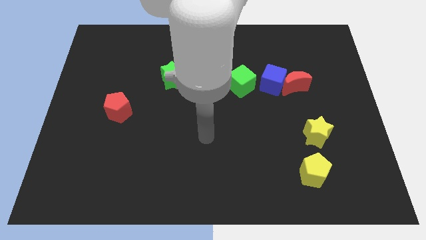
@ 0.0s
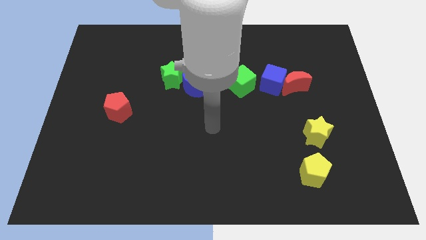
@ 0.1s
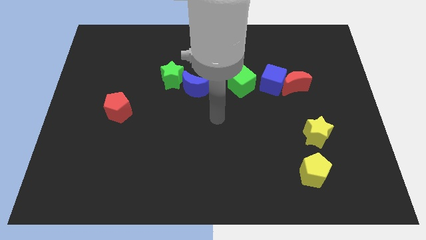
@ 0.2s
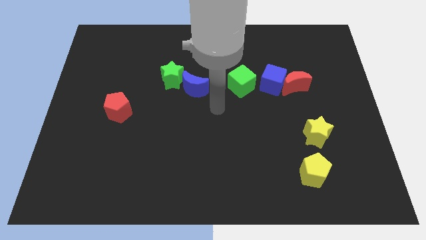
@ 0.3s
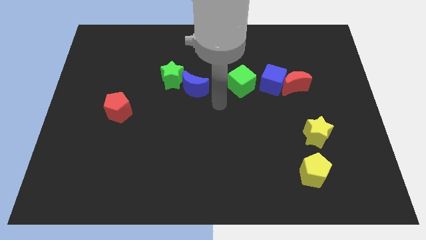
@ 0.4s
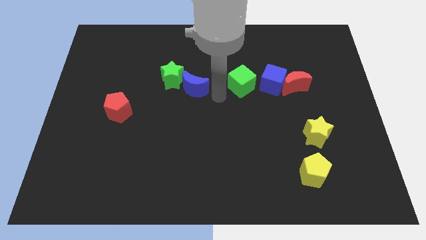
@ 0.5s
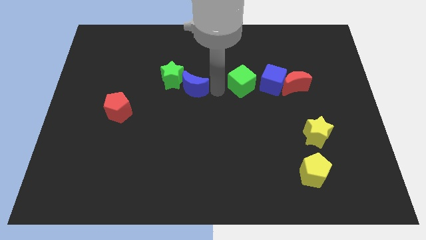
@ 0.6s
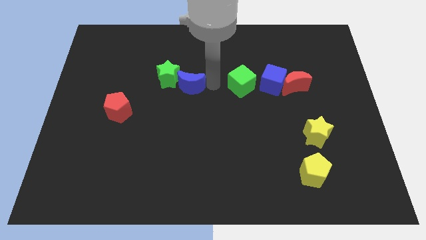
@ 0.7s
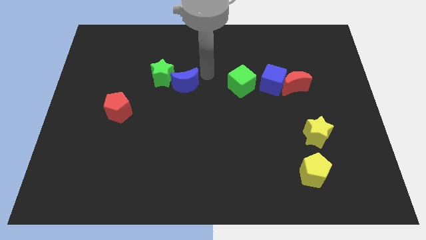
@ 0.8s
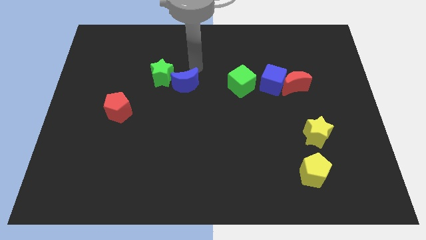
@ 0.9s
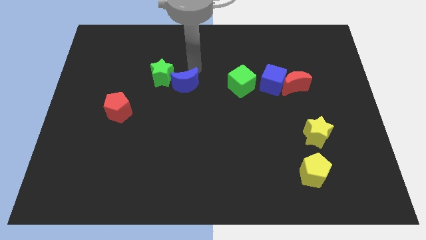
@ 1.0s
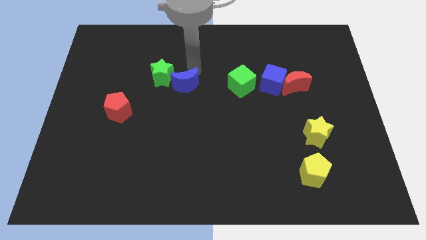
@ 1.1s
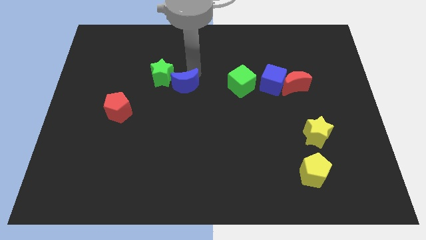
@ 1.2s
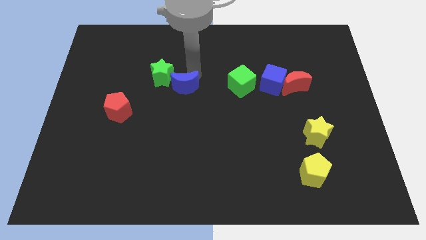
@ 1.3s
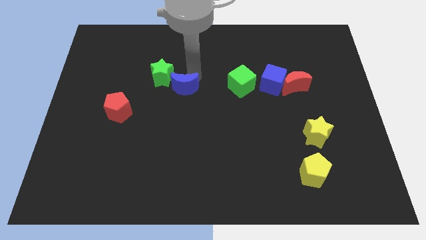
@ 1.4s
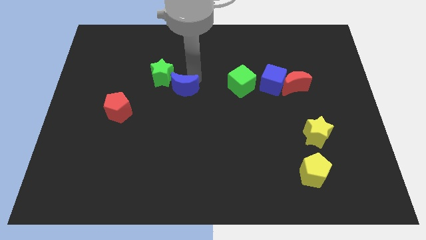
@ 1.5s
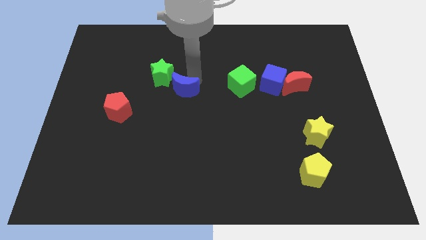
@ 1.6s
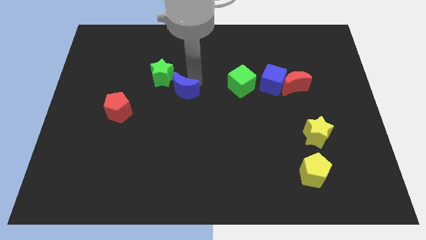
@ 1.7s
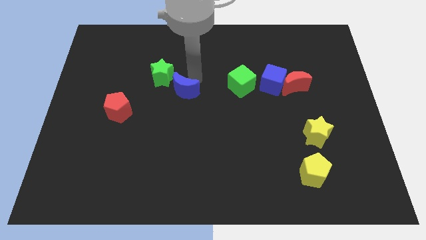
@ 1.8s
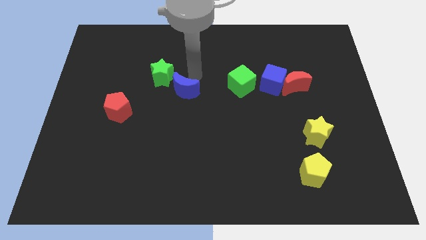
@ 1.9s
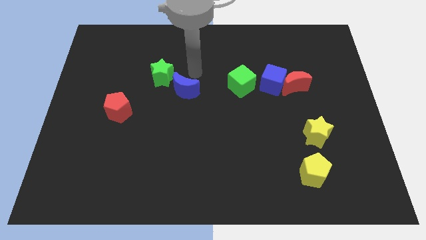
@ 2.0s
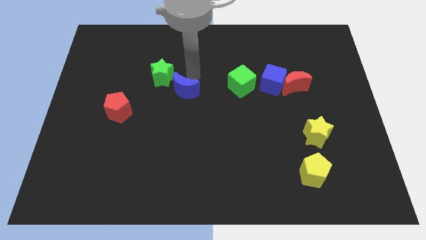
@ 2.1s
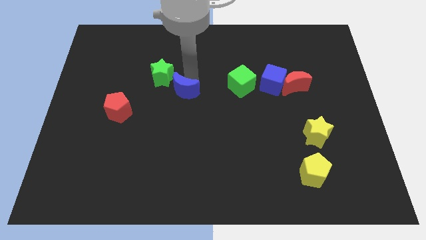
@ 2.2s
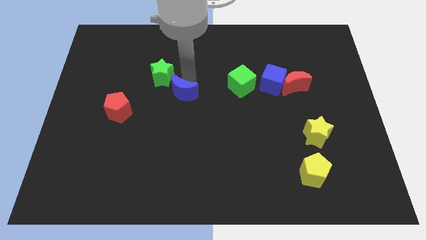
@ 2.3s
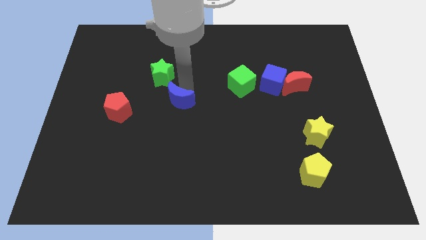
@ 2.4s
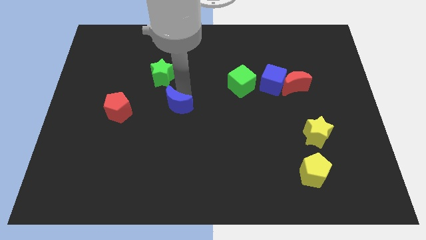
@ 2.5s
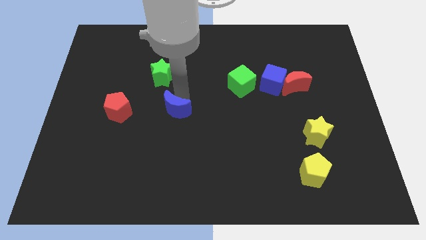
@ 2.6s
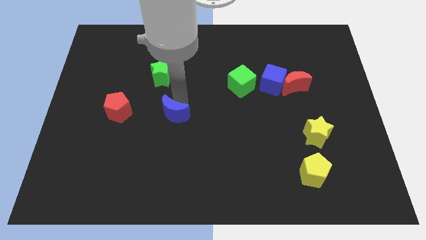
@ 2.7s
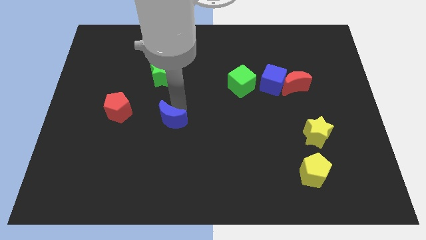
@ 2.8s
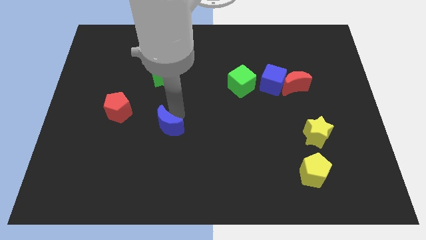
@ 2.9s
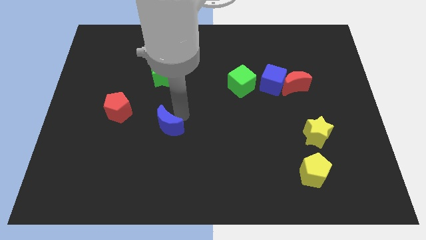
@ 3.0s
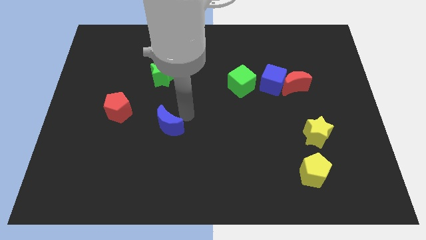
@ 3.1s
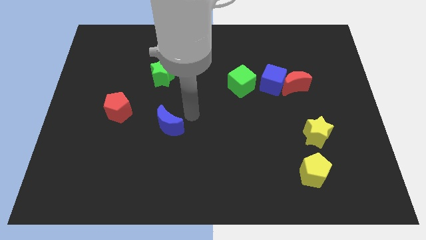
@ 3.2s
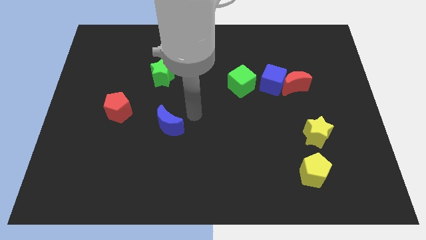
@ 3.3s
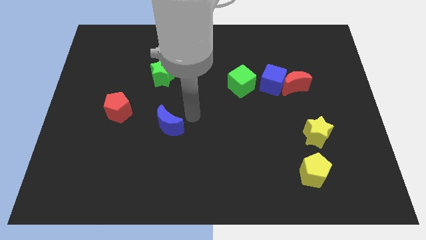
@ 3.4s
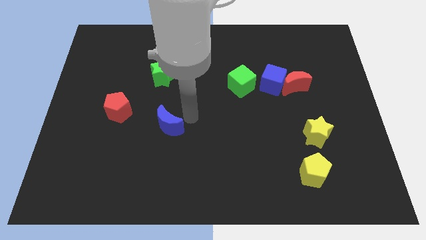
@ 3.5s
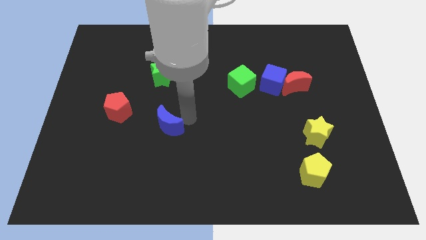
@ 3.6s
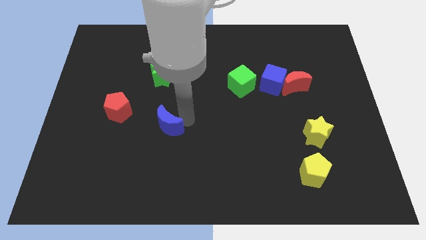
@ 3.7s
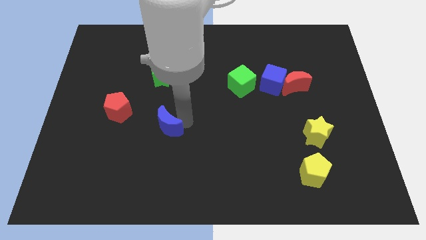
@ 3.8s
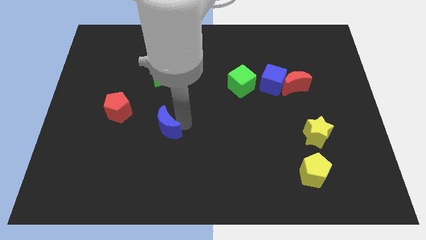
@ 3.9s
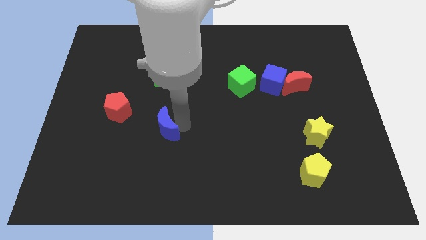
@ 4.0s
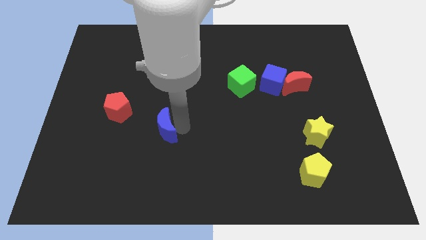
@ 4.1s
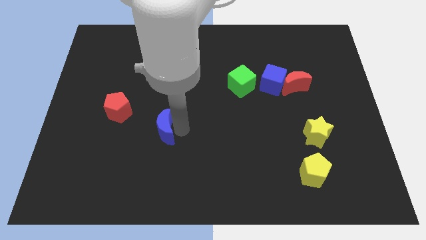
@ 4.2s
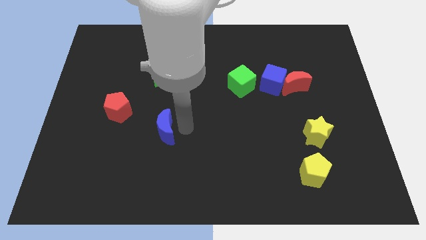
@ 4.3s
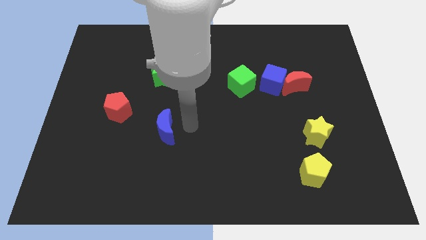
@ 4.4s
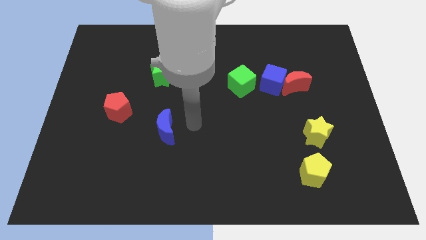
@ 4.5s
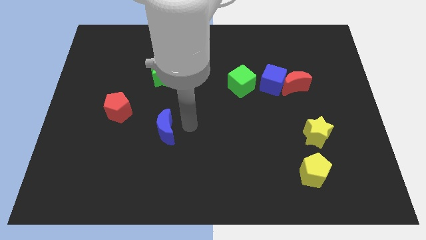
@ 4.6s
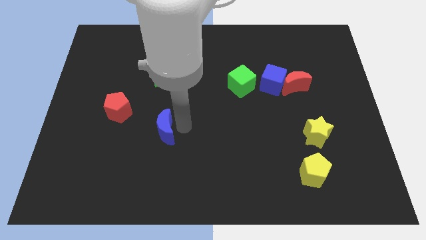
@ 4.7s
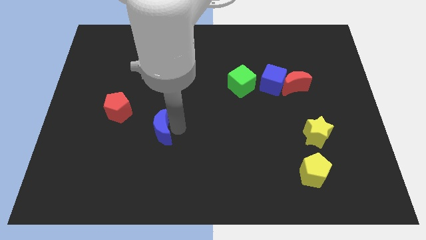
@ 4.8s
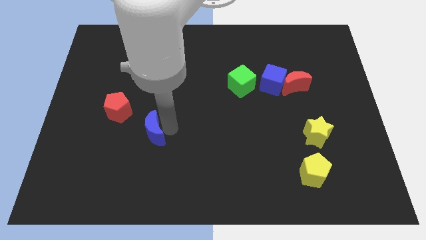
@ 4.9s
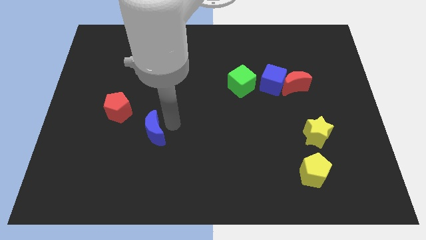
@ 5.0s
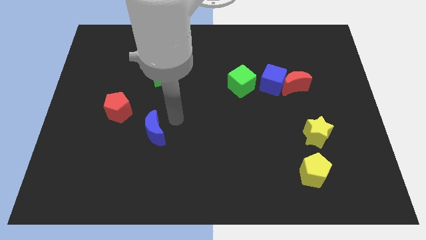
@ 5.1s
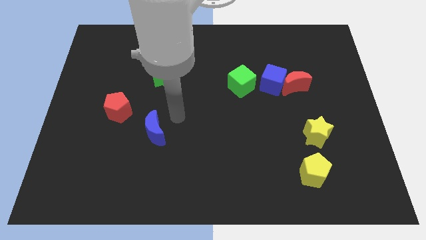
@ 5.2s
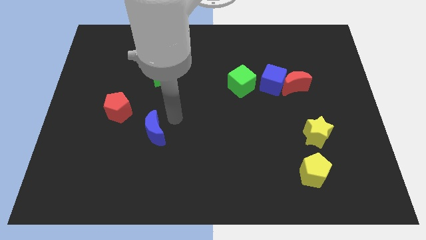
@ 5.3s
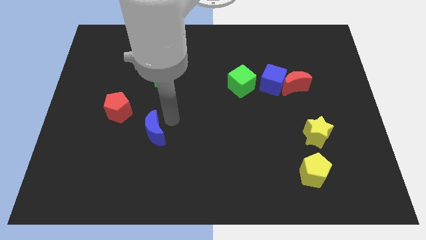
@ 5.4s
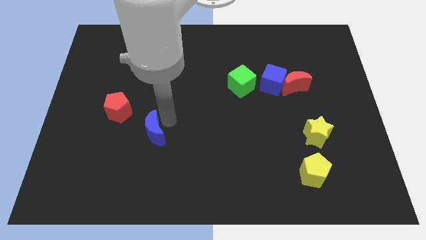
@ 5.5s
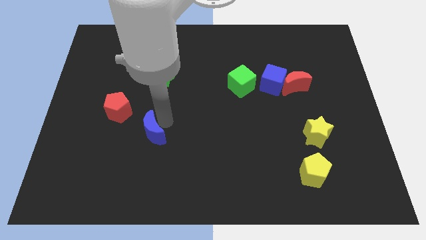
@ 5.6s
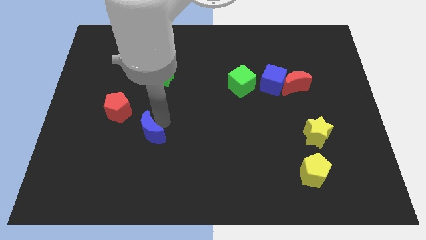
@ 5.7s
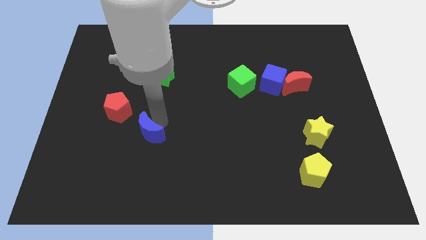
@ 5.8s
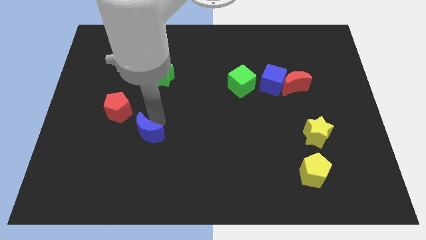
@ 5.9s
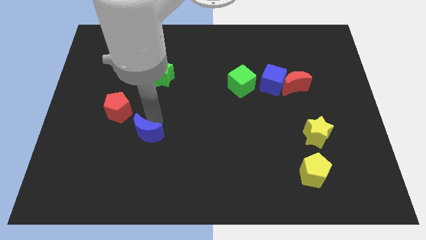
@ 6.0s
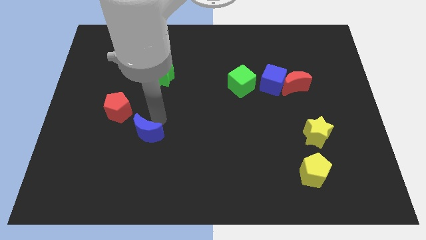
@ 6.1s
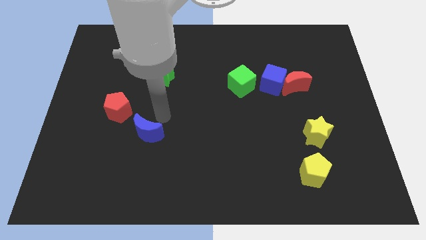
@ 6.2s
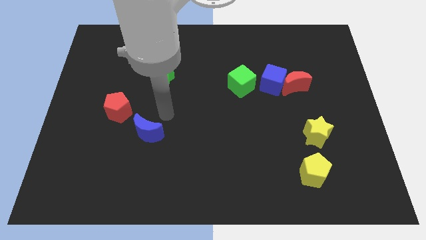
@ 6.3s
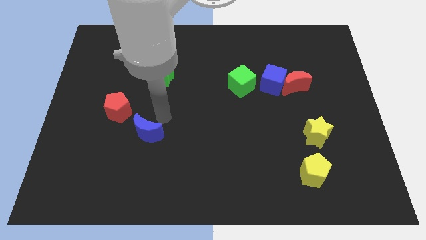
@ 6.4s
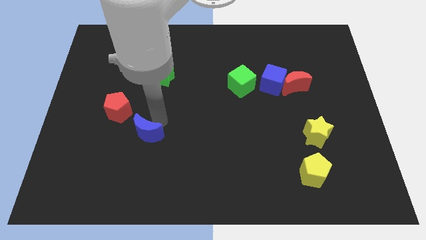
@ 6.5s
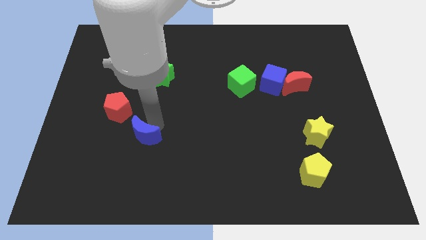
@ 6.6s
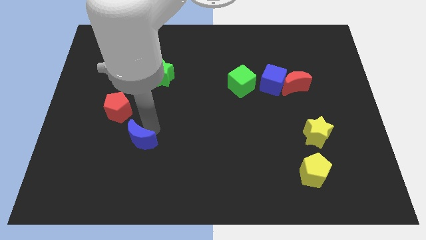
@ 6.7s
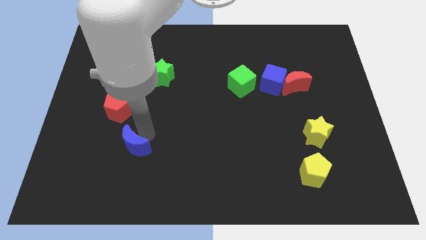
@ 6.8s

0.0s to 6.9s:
slide the blue moon downwards and then left

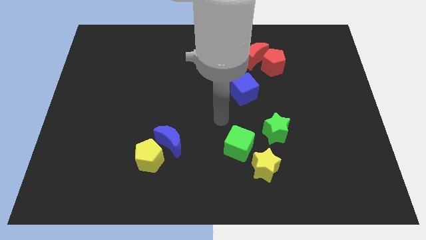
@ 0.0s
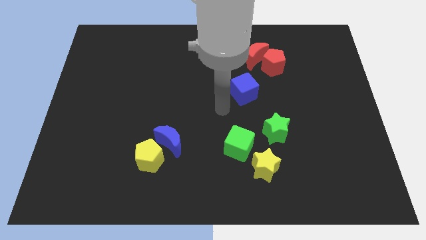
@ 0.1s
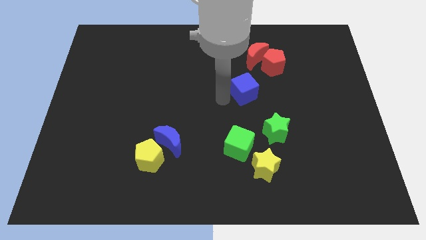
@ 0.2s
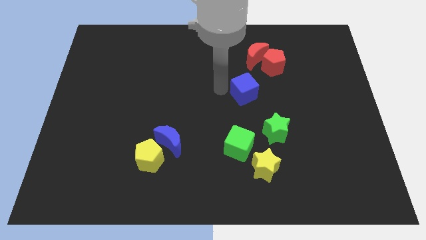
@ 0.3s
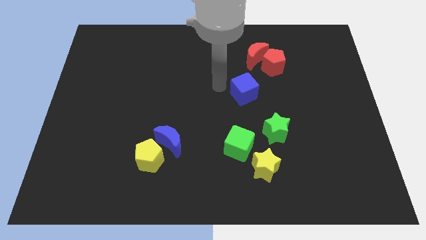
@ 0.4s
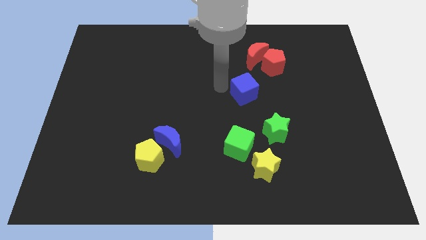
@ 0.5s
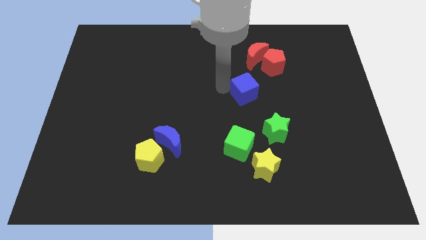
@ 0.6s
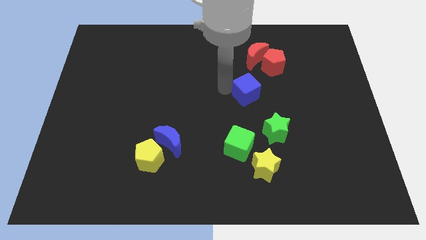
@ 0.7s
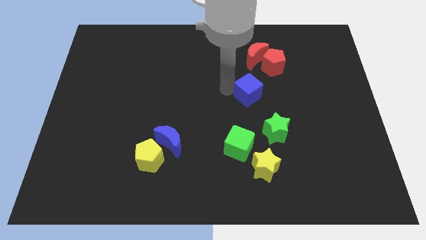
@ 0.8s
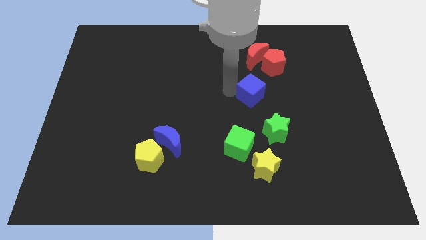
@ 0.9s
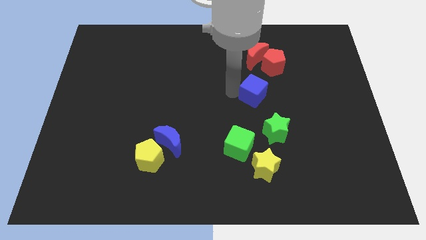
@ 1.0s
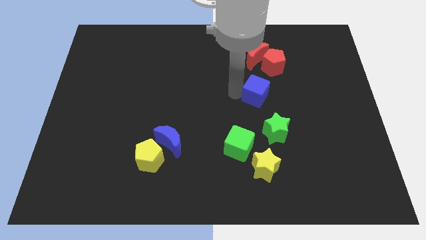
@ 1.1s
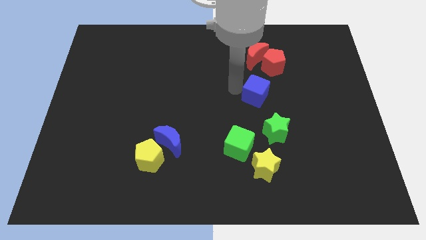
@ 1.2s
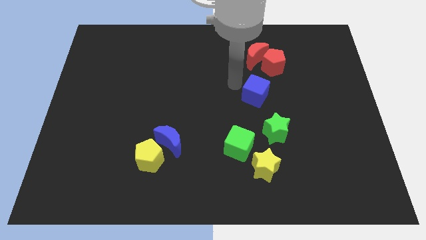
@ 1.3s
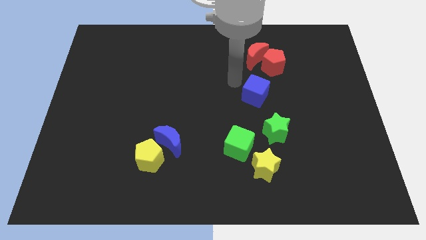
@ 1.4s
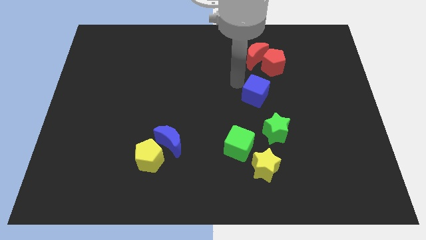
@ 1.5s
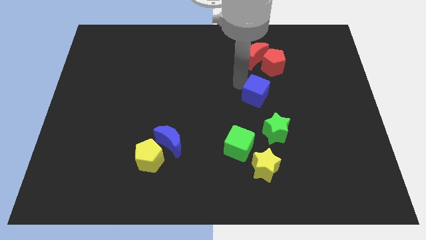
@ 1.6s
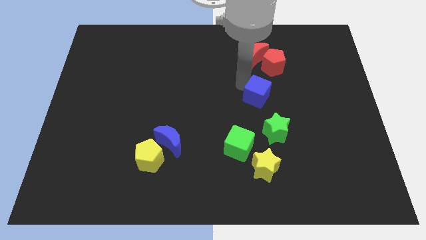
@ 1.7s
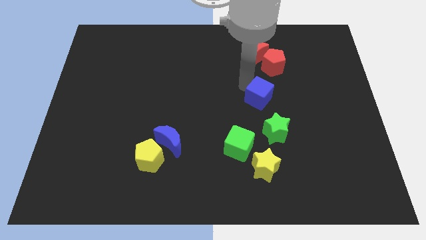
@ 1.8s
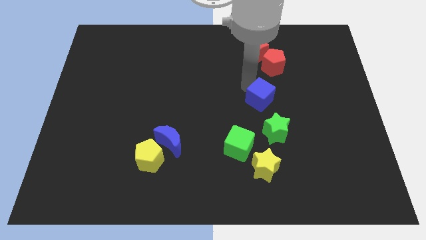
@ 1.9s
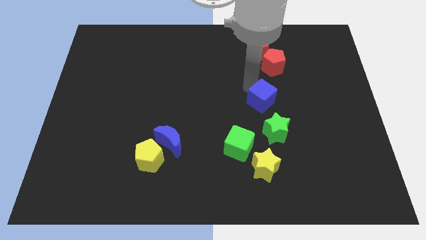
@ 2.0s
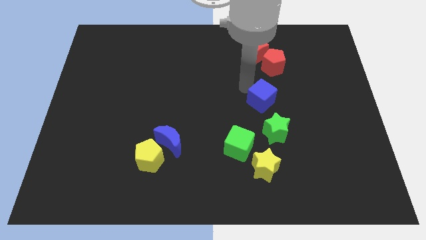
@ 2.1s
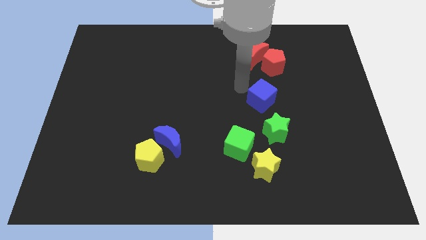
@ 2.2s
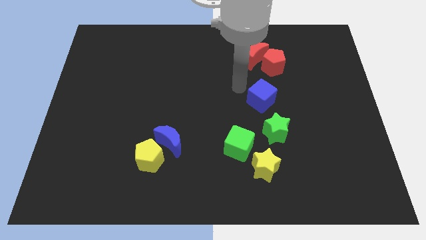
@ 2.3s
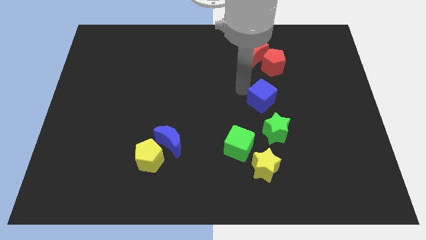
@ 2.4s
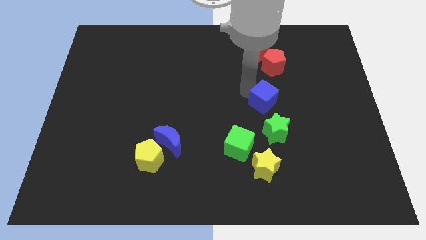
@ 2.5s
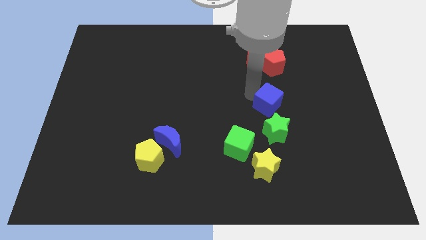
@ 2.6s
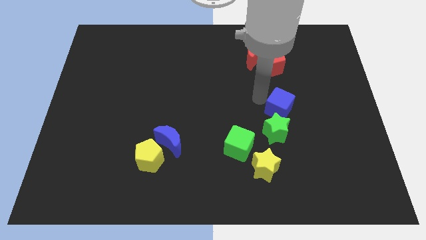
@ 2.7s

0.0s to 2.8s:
slide the blue cube a little downwards and to the right
